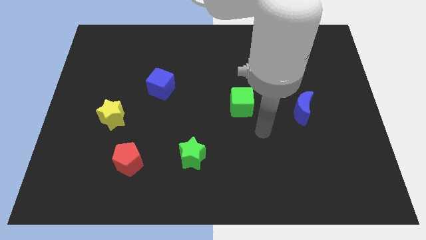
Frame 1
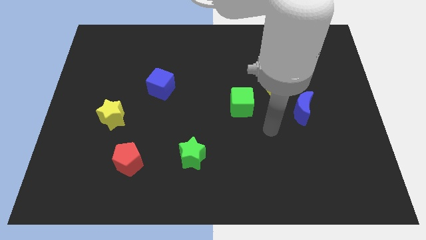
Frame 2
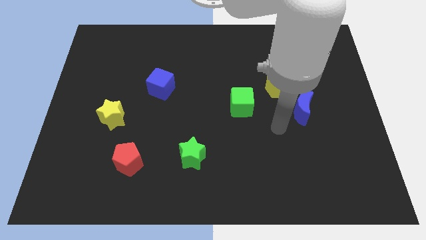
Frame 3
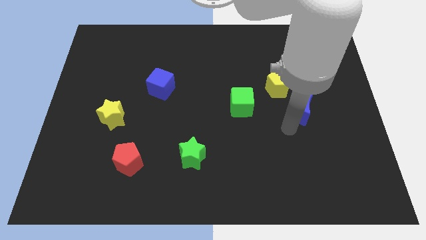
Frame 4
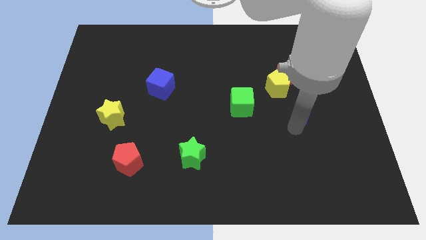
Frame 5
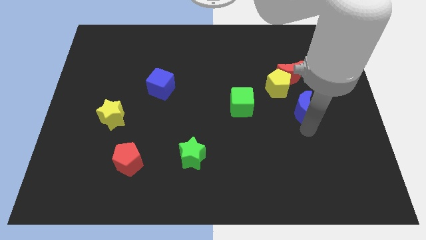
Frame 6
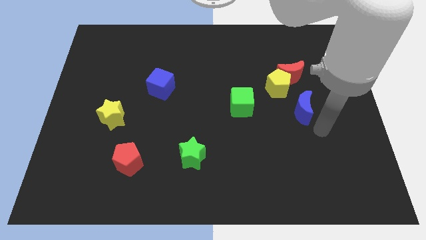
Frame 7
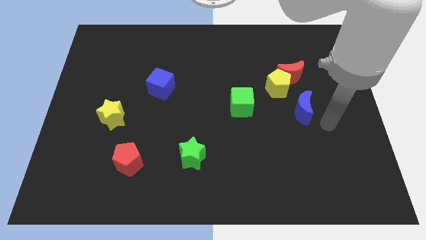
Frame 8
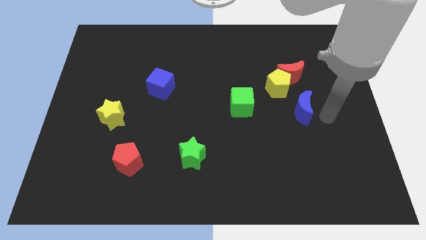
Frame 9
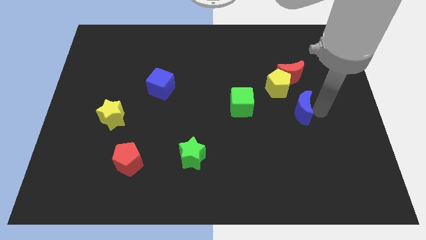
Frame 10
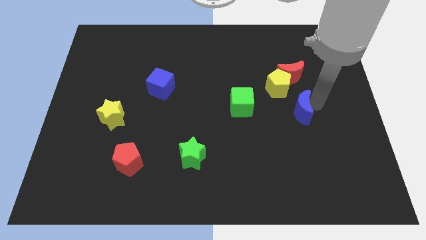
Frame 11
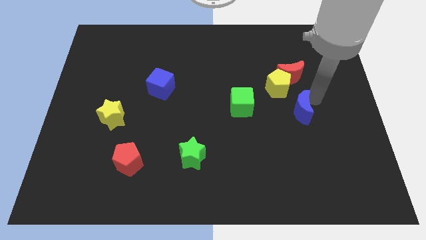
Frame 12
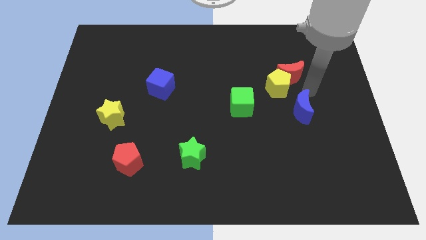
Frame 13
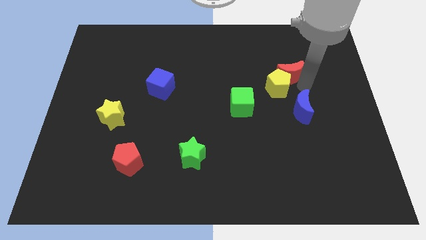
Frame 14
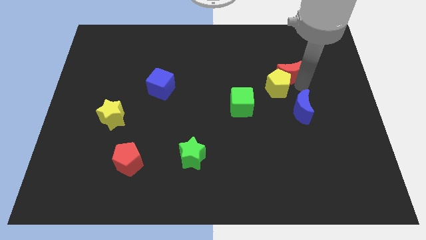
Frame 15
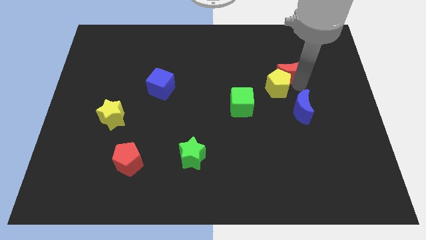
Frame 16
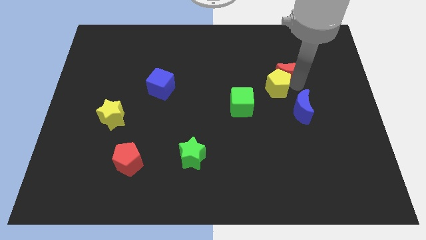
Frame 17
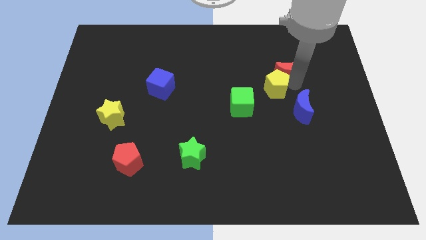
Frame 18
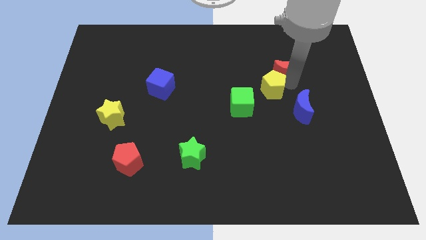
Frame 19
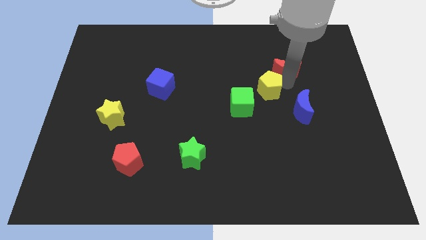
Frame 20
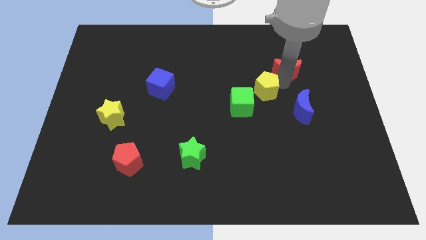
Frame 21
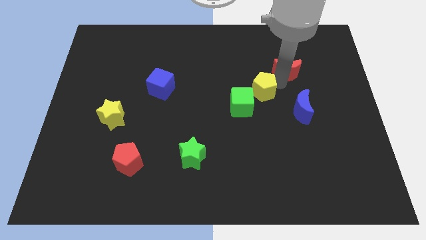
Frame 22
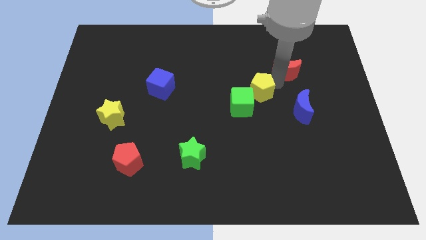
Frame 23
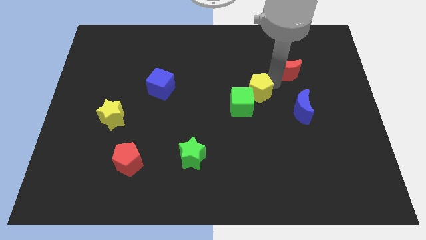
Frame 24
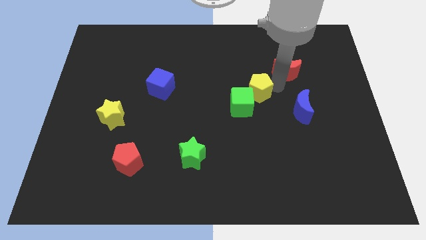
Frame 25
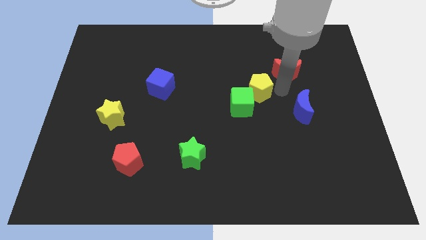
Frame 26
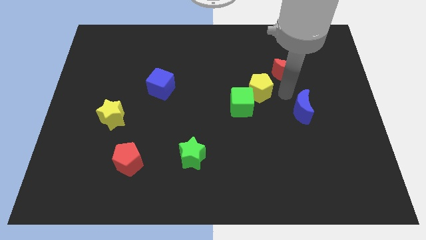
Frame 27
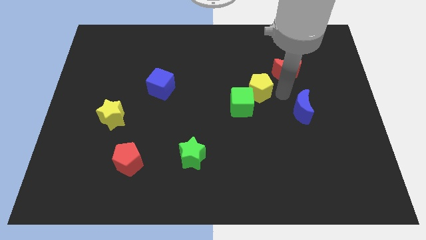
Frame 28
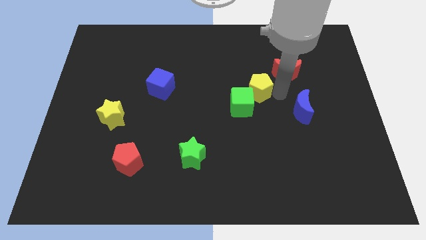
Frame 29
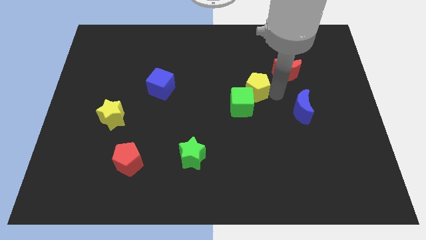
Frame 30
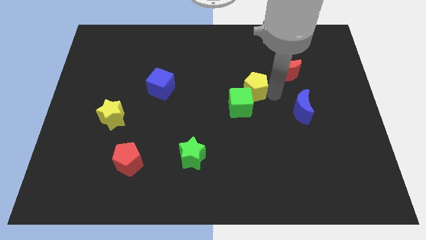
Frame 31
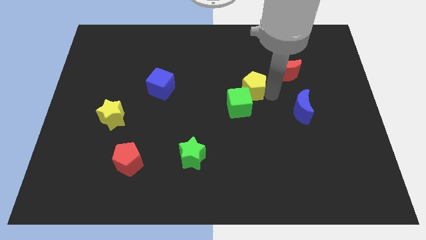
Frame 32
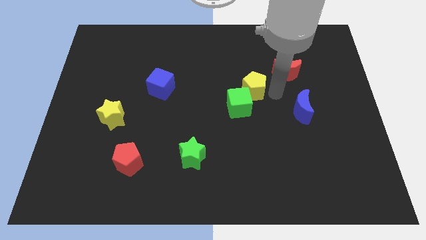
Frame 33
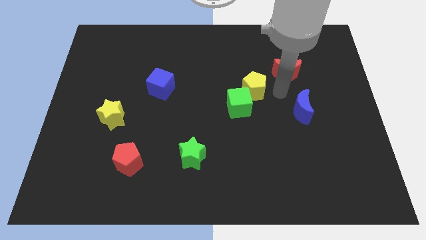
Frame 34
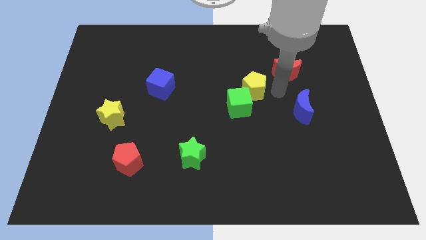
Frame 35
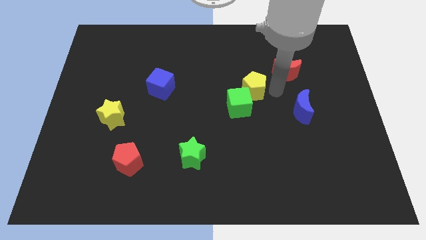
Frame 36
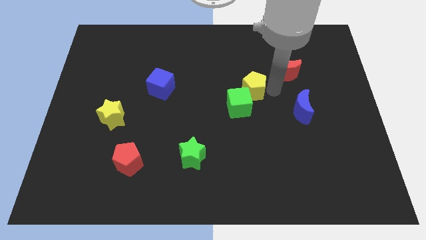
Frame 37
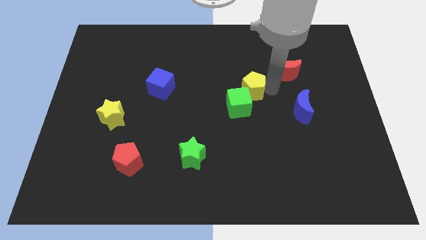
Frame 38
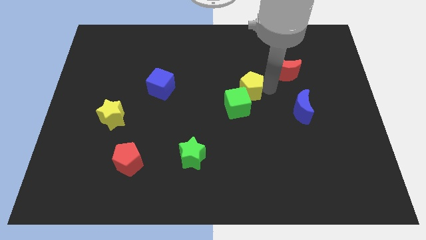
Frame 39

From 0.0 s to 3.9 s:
push the yellow pentagon a little bit left

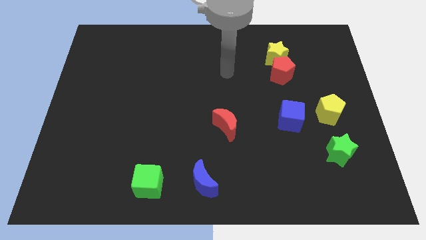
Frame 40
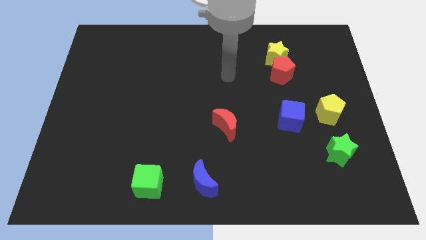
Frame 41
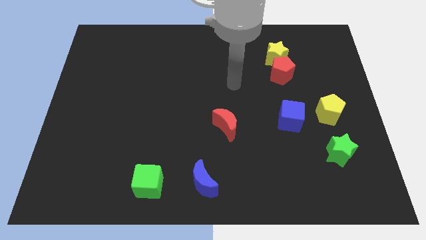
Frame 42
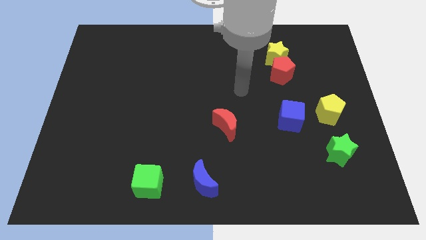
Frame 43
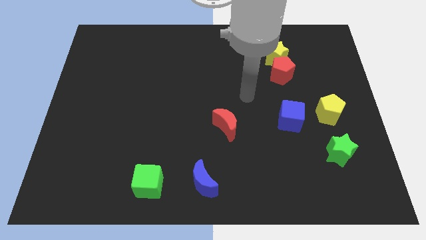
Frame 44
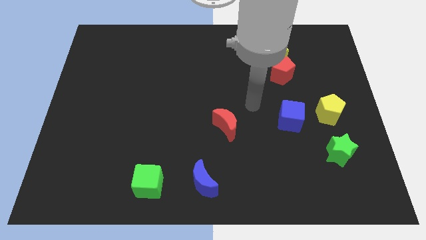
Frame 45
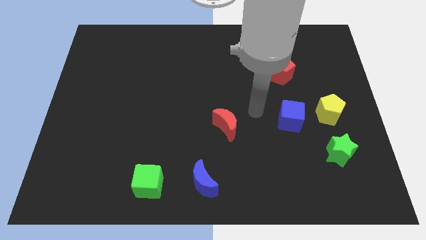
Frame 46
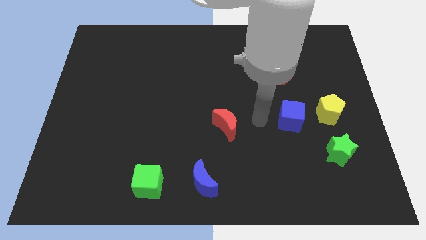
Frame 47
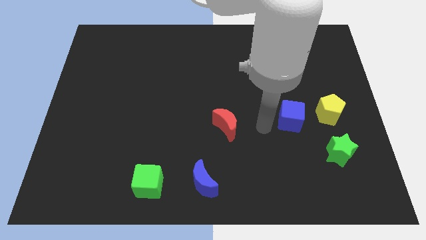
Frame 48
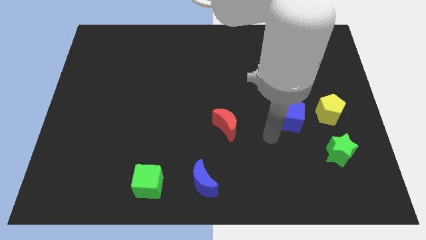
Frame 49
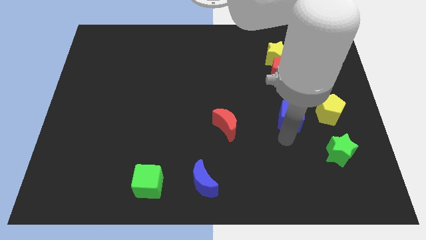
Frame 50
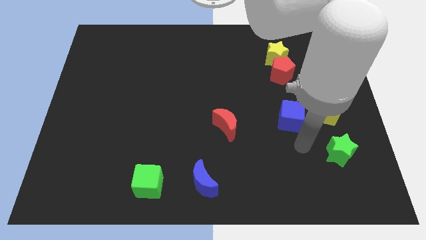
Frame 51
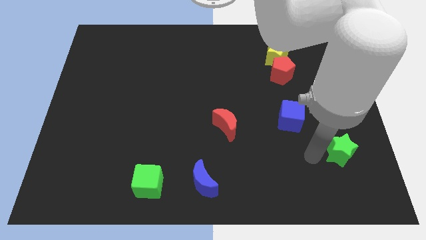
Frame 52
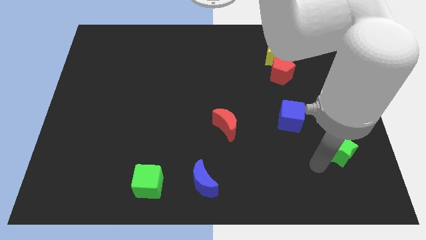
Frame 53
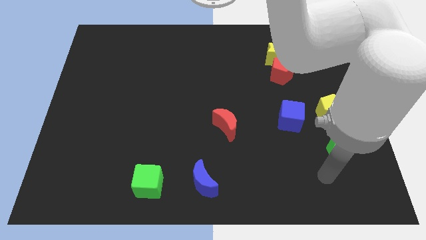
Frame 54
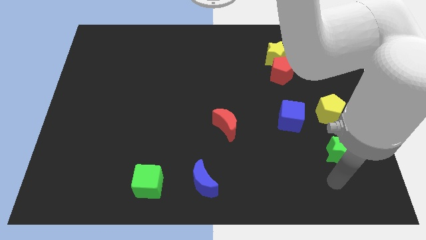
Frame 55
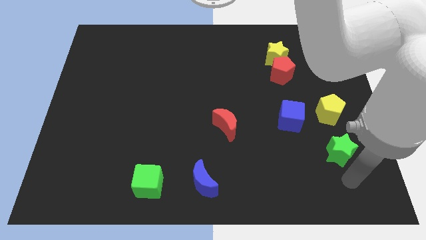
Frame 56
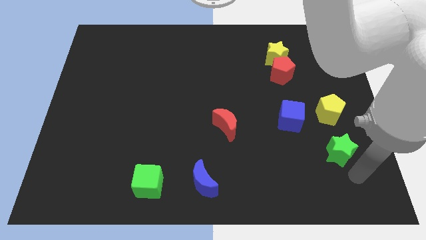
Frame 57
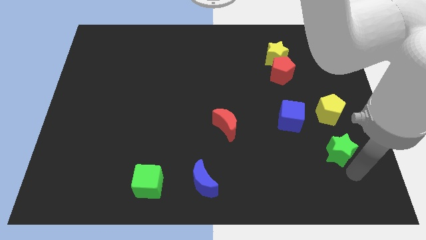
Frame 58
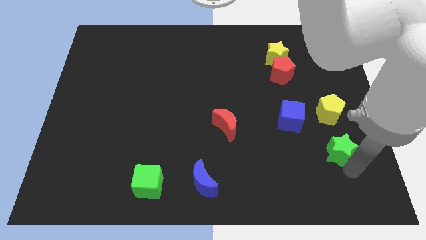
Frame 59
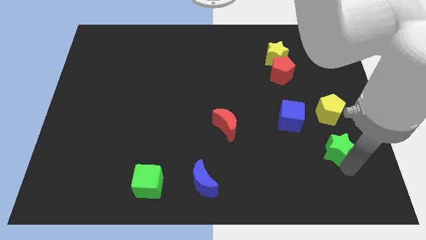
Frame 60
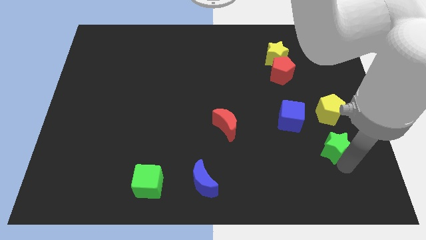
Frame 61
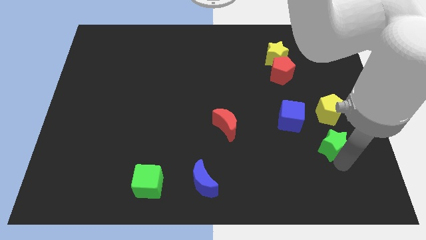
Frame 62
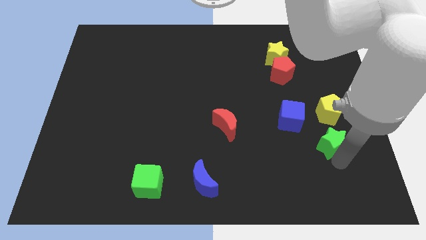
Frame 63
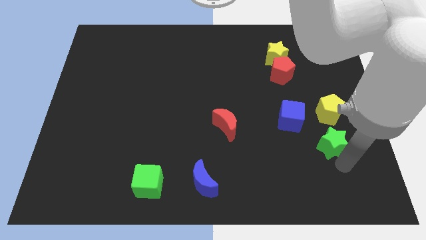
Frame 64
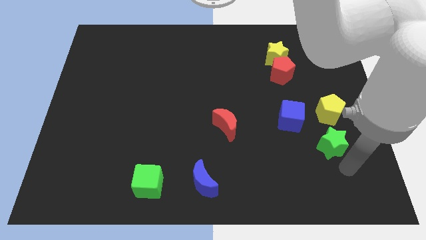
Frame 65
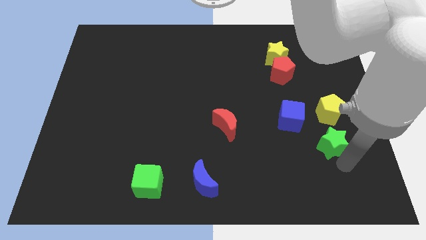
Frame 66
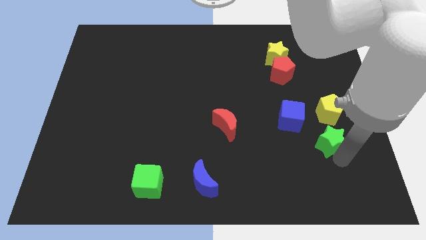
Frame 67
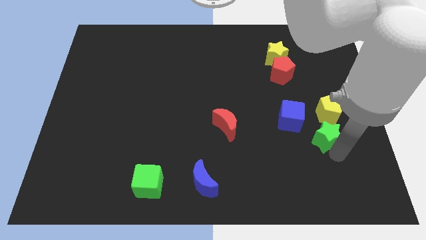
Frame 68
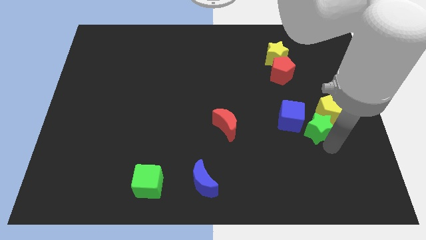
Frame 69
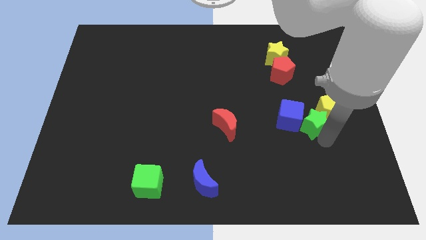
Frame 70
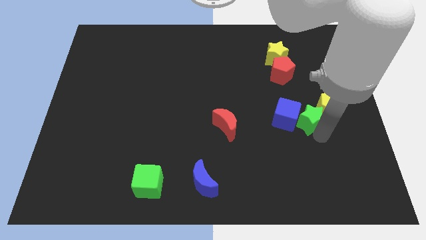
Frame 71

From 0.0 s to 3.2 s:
push the green star a little bit up

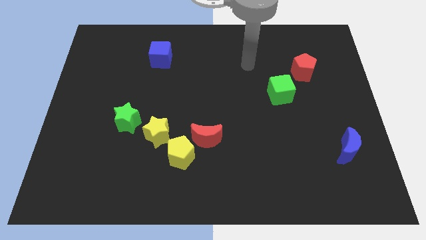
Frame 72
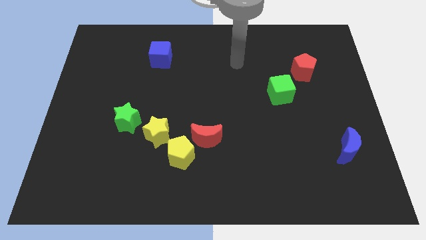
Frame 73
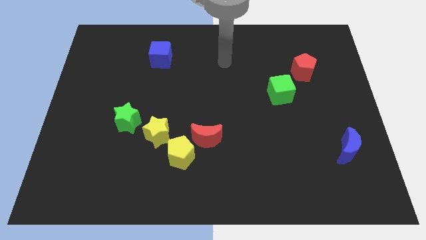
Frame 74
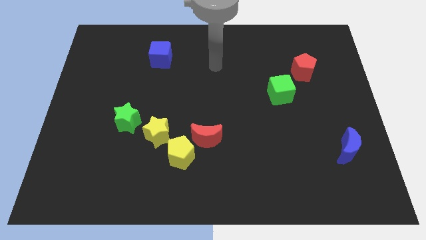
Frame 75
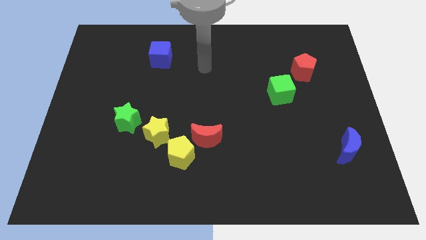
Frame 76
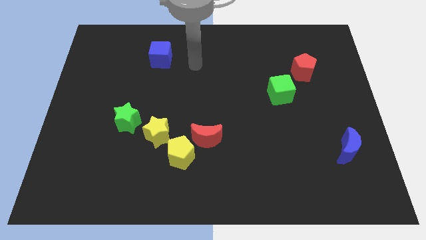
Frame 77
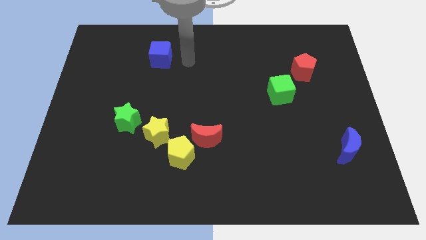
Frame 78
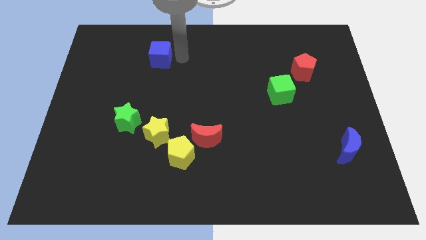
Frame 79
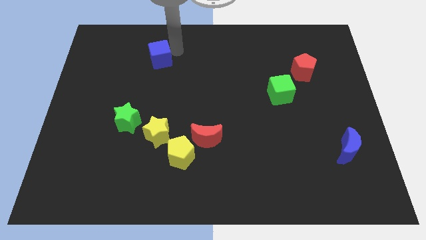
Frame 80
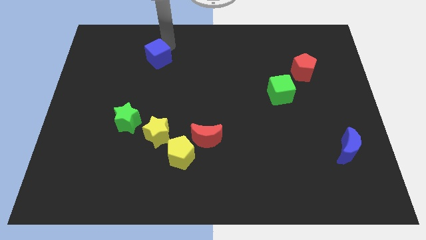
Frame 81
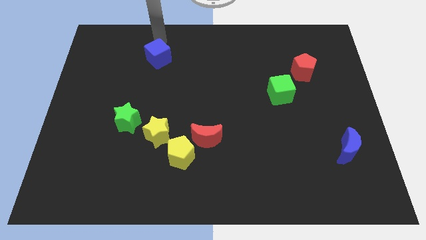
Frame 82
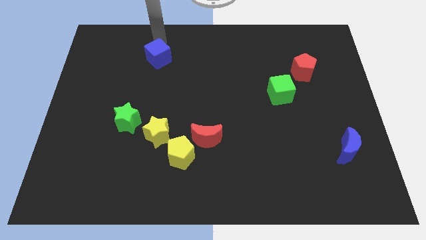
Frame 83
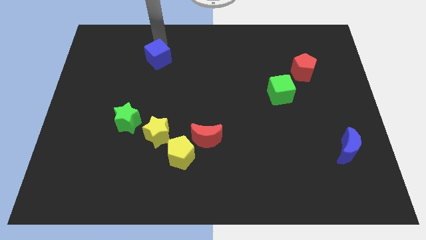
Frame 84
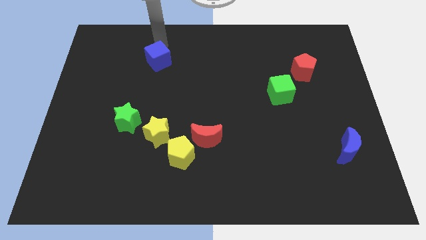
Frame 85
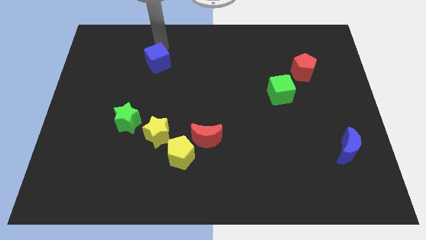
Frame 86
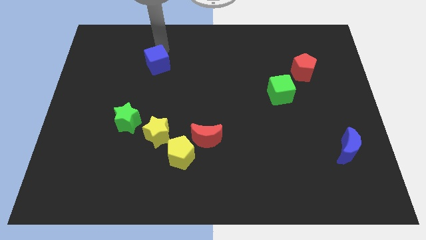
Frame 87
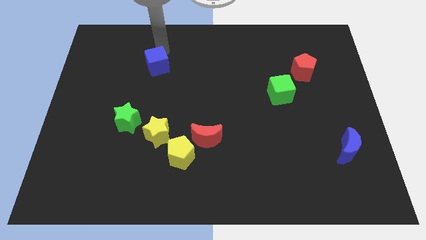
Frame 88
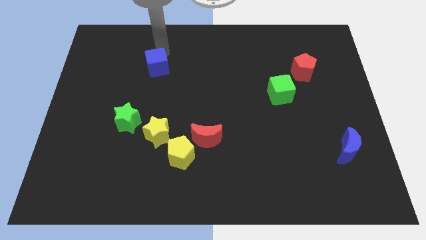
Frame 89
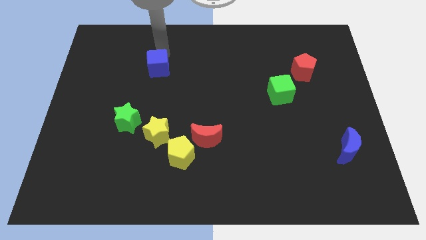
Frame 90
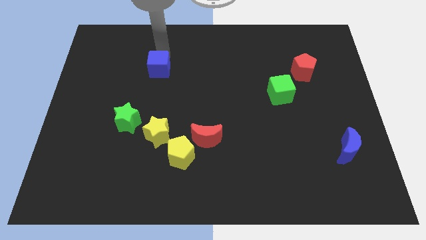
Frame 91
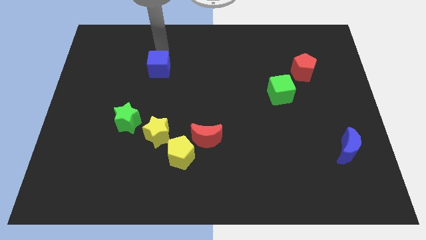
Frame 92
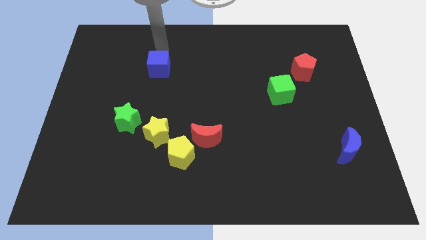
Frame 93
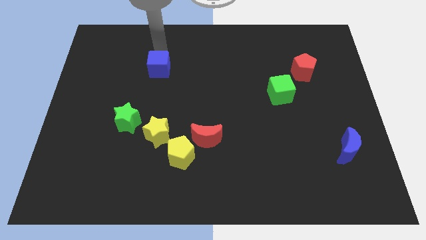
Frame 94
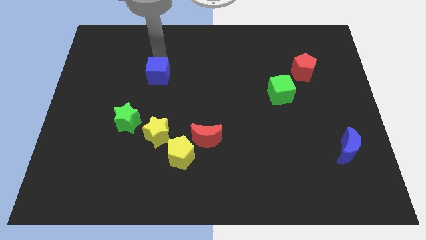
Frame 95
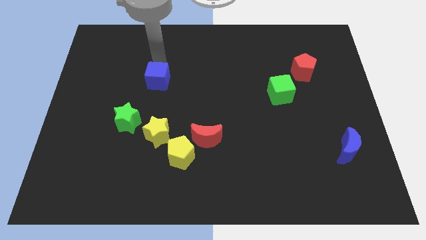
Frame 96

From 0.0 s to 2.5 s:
move the blue cube down a little bit
